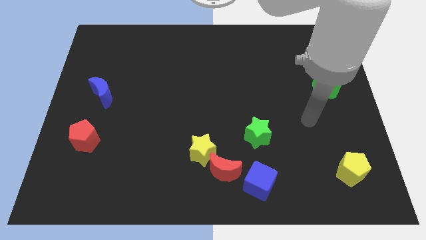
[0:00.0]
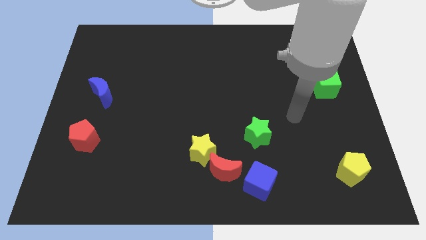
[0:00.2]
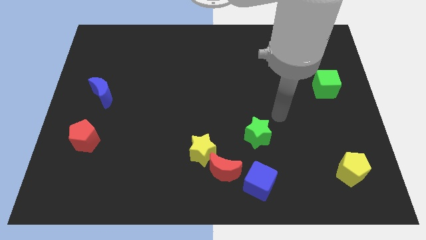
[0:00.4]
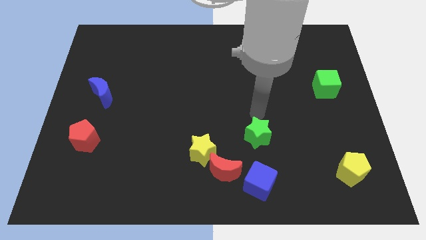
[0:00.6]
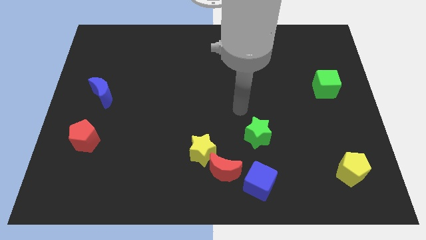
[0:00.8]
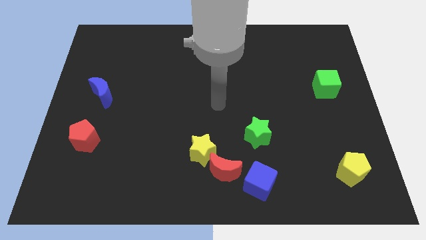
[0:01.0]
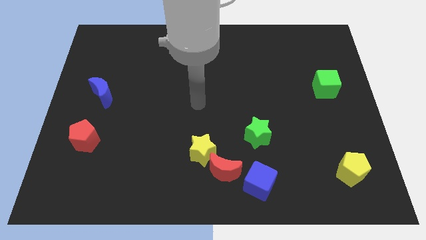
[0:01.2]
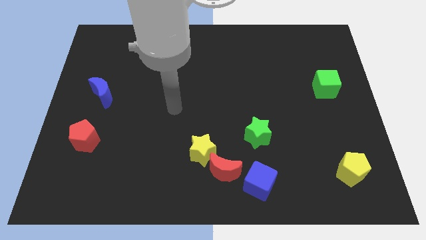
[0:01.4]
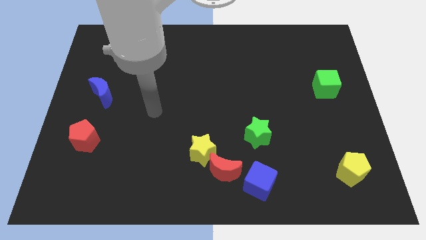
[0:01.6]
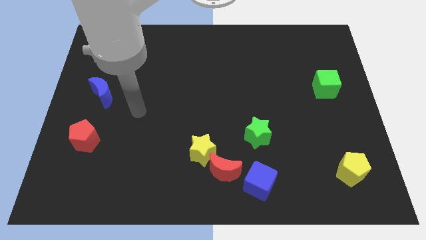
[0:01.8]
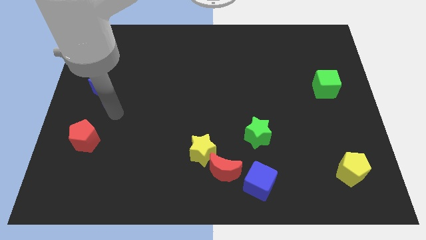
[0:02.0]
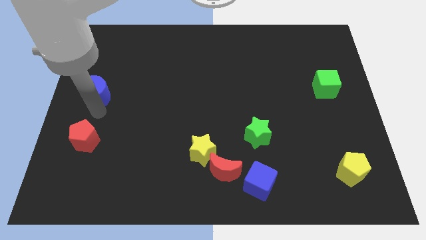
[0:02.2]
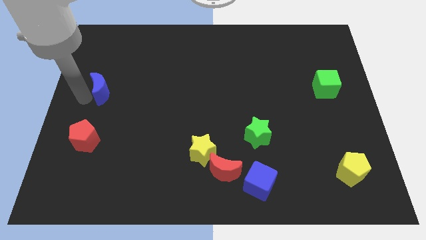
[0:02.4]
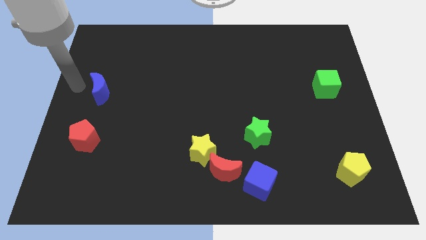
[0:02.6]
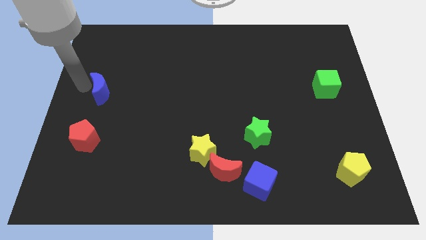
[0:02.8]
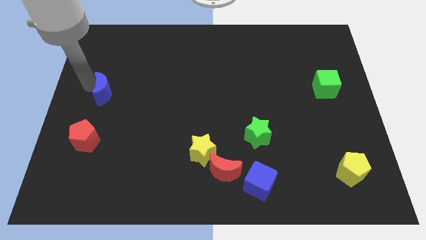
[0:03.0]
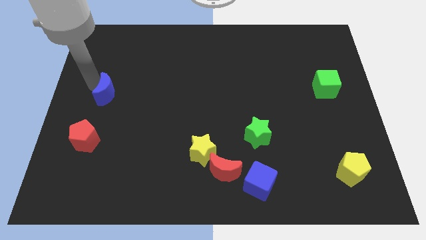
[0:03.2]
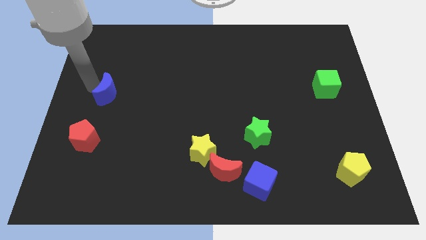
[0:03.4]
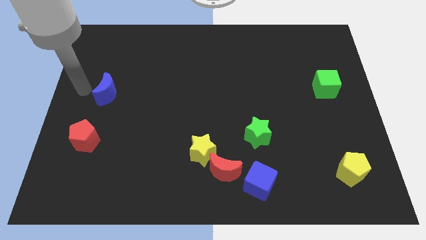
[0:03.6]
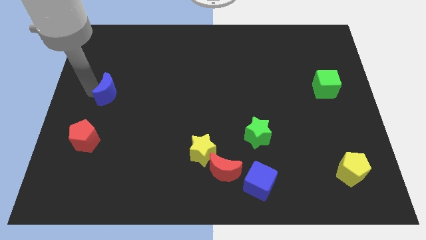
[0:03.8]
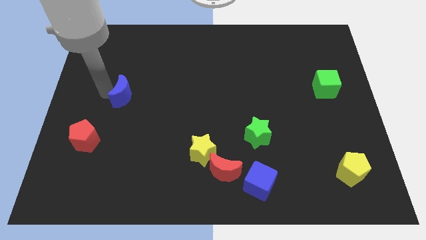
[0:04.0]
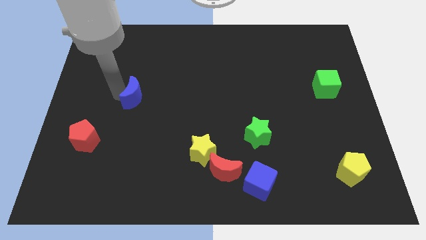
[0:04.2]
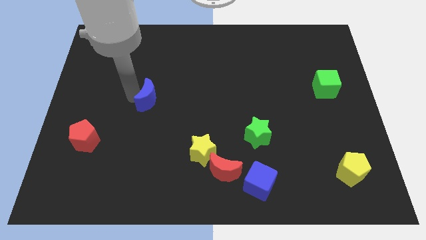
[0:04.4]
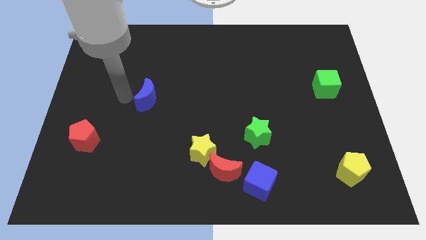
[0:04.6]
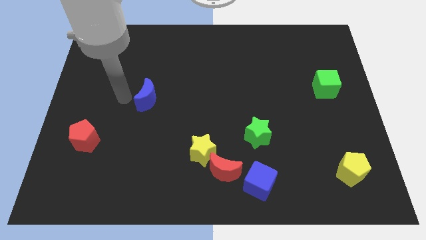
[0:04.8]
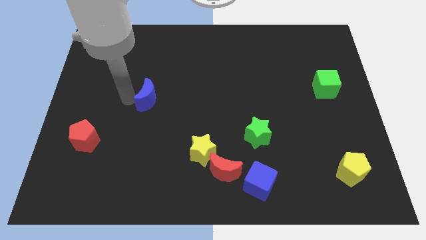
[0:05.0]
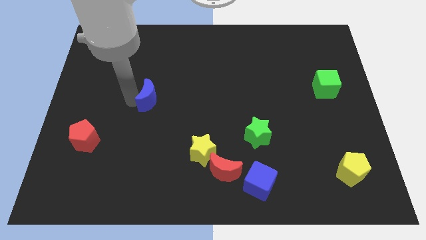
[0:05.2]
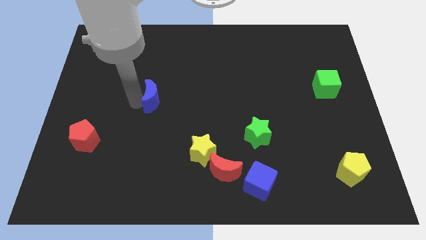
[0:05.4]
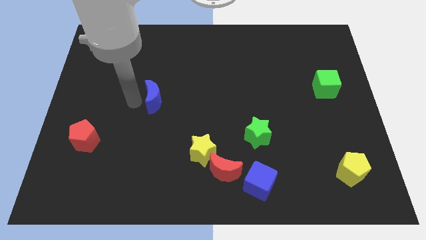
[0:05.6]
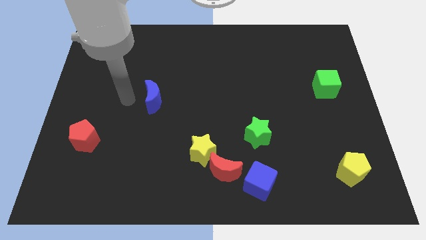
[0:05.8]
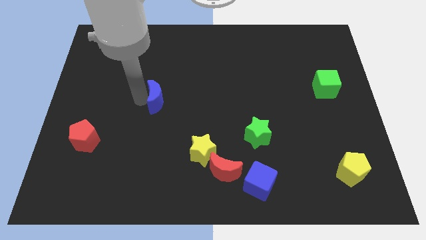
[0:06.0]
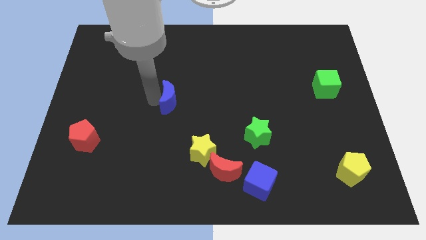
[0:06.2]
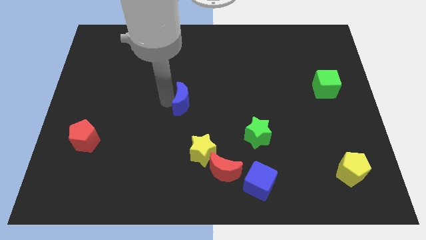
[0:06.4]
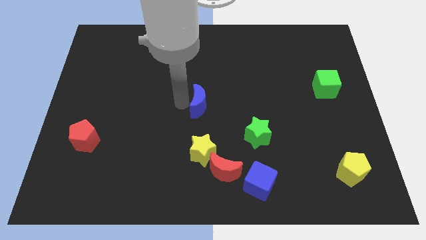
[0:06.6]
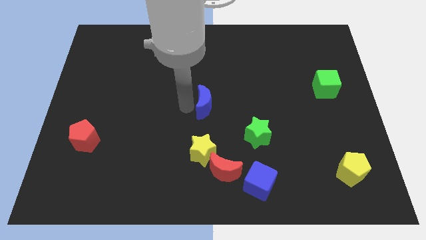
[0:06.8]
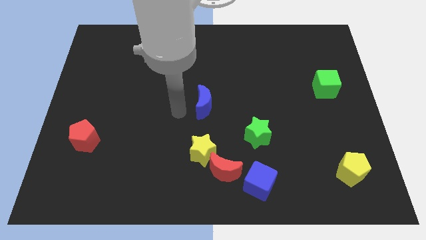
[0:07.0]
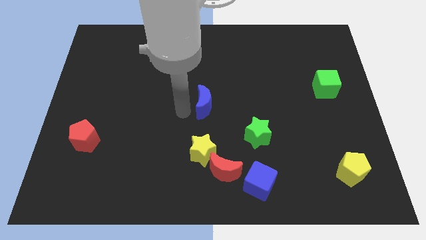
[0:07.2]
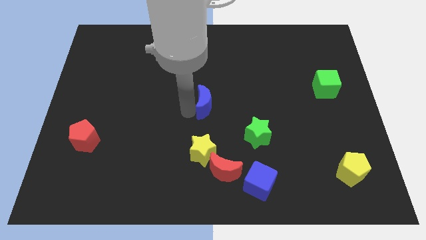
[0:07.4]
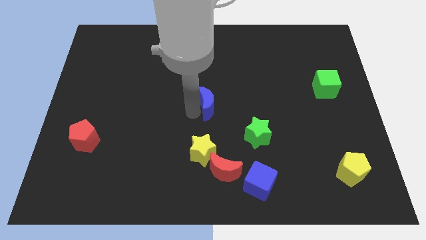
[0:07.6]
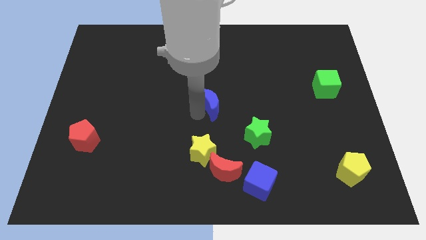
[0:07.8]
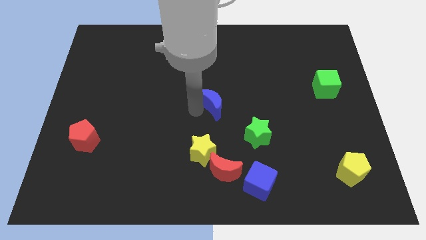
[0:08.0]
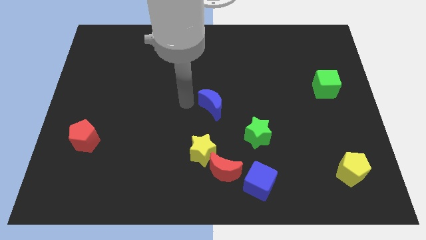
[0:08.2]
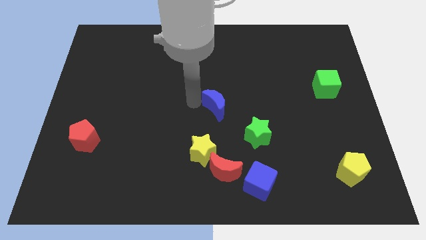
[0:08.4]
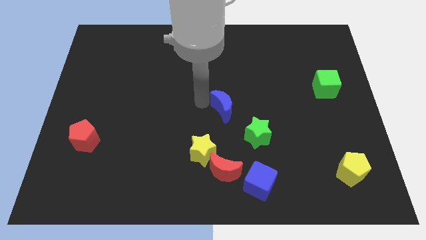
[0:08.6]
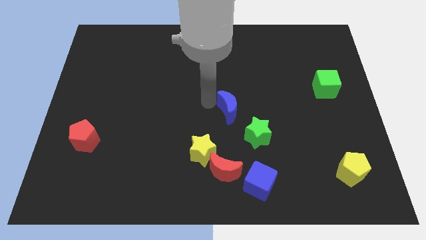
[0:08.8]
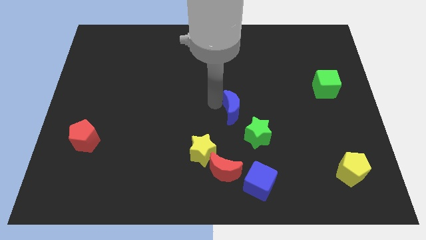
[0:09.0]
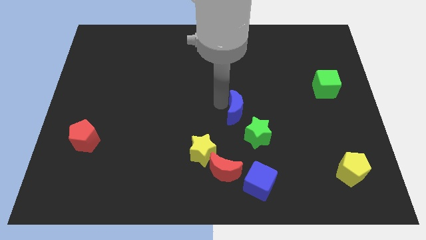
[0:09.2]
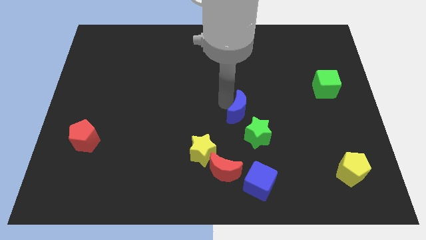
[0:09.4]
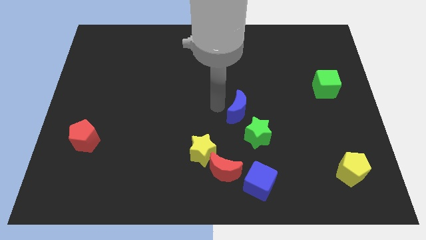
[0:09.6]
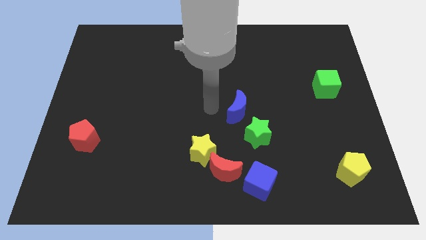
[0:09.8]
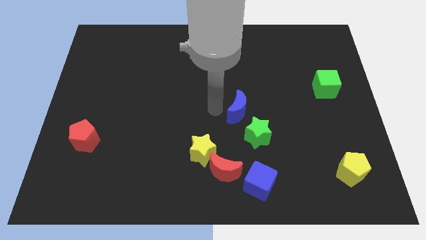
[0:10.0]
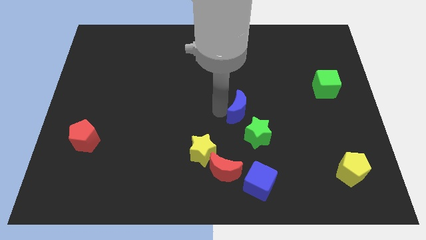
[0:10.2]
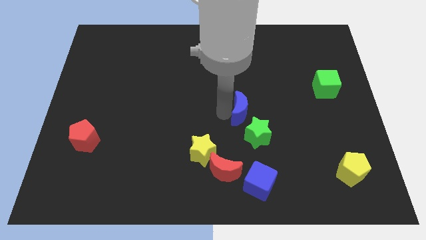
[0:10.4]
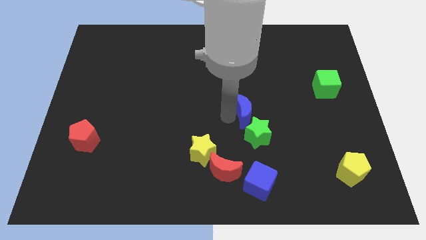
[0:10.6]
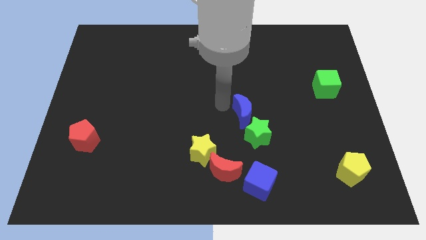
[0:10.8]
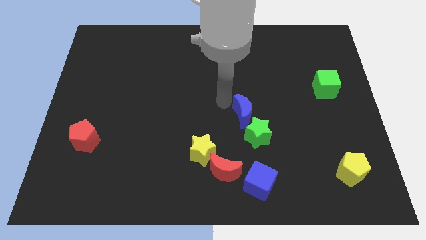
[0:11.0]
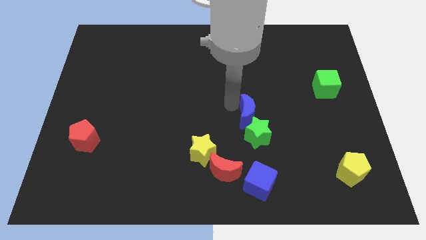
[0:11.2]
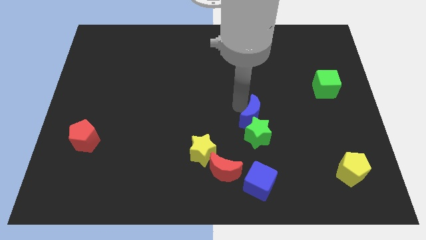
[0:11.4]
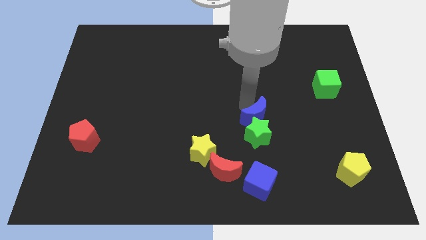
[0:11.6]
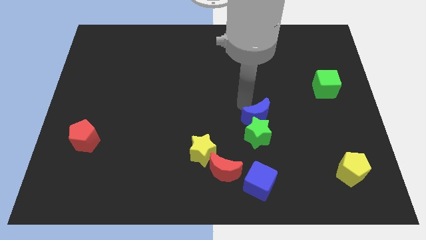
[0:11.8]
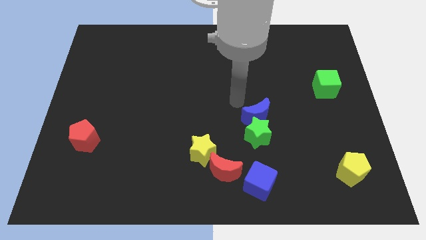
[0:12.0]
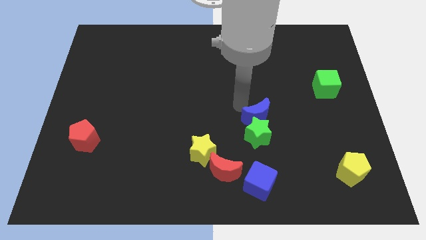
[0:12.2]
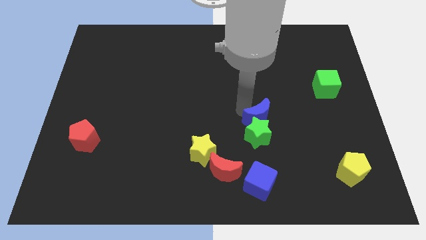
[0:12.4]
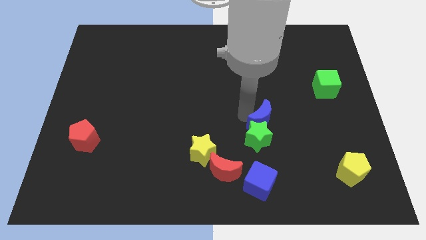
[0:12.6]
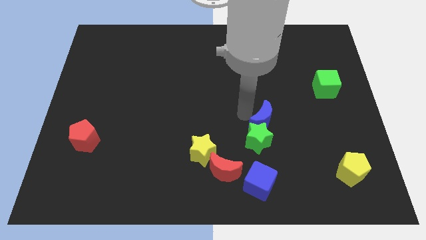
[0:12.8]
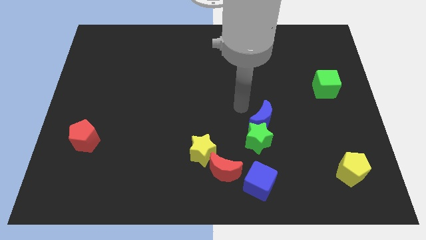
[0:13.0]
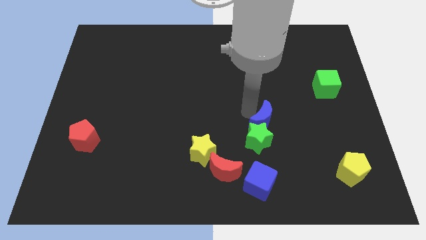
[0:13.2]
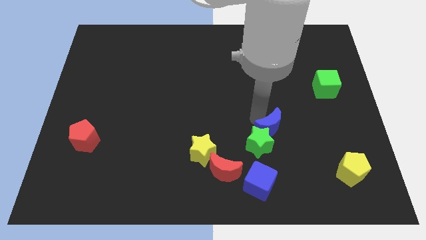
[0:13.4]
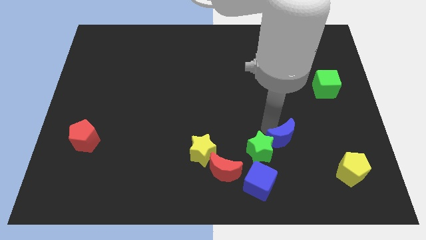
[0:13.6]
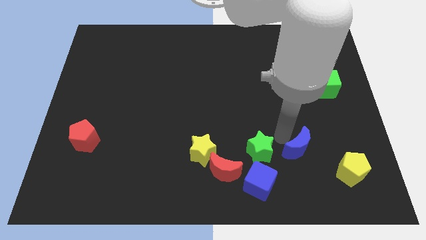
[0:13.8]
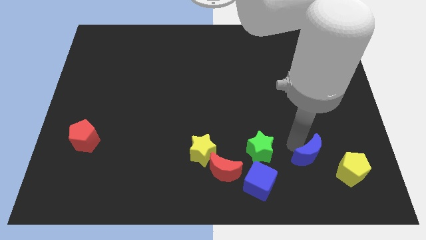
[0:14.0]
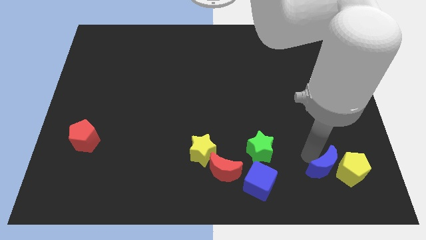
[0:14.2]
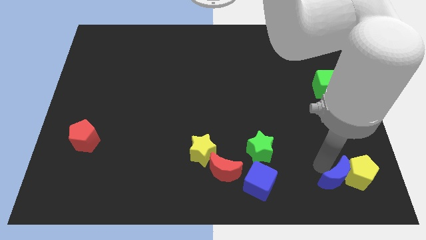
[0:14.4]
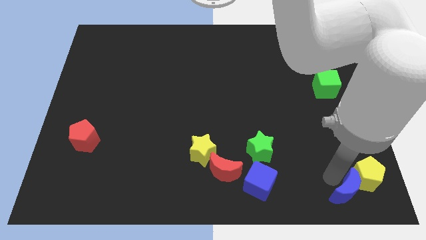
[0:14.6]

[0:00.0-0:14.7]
put the blue moon to the bottom right of the board

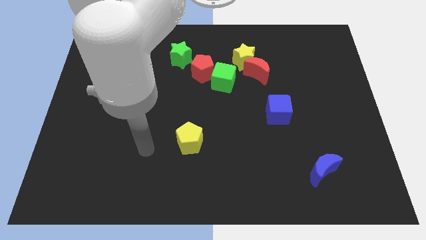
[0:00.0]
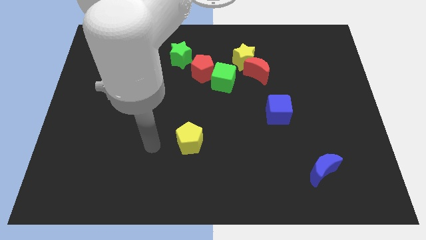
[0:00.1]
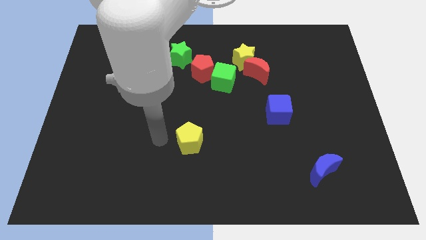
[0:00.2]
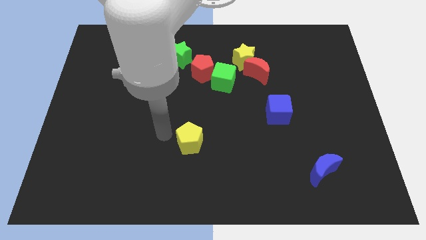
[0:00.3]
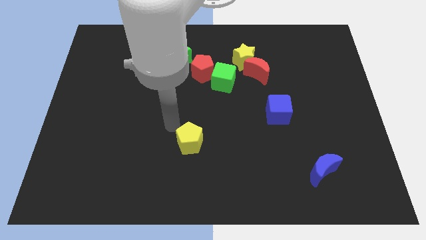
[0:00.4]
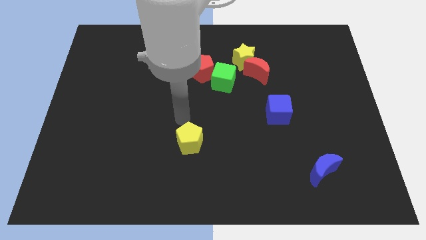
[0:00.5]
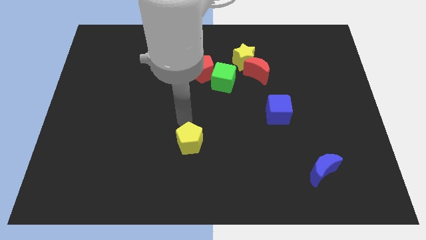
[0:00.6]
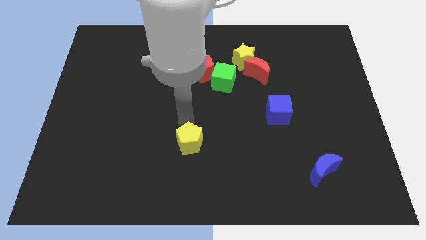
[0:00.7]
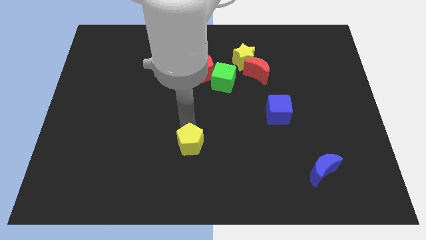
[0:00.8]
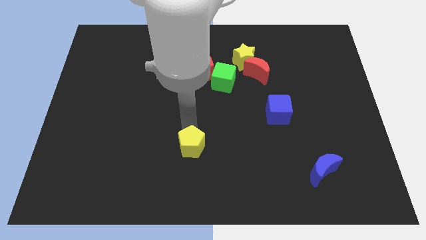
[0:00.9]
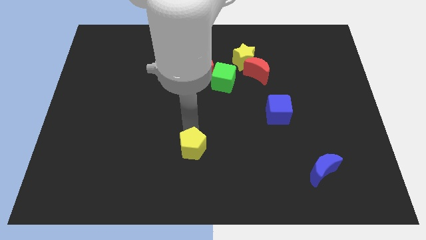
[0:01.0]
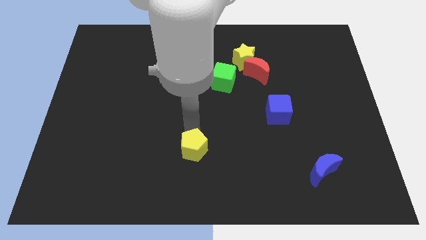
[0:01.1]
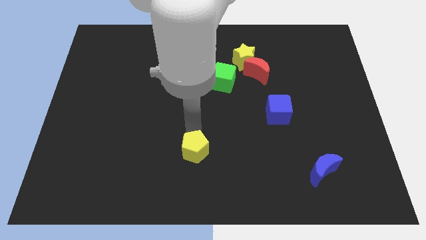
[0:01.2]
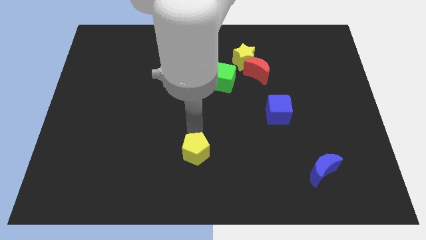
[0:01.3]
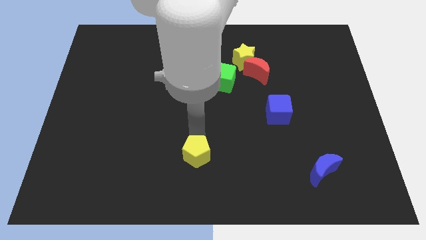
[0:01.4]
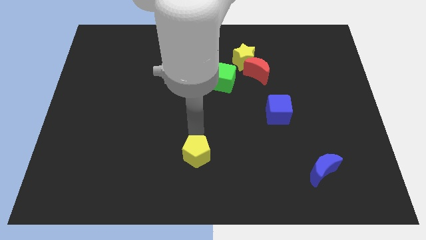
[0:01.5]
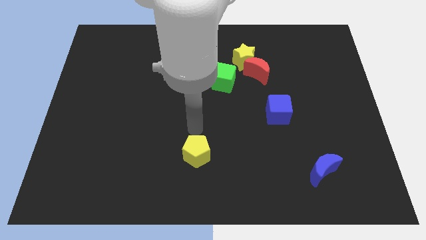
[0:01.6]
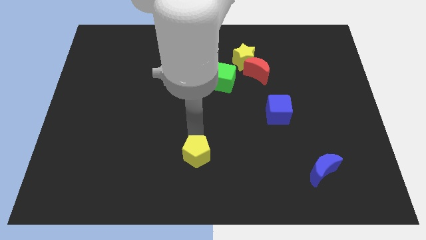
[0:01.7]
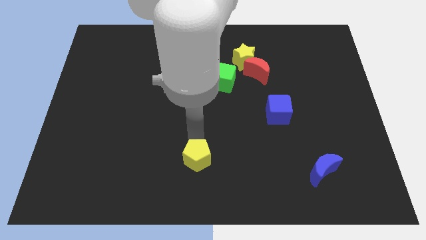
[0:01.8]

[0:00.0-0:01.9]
slide the yellow pentagon to the bottom
